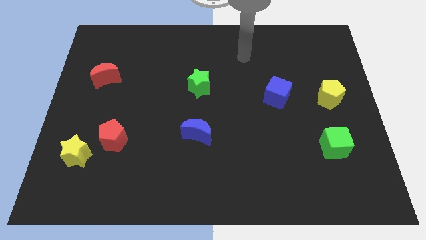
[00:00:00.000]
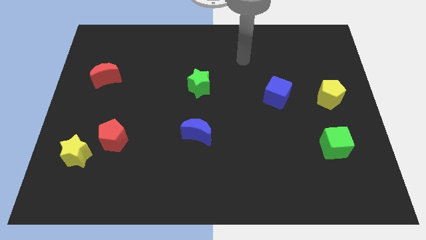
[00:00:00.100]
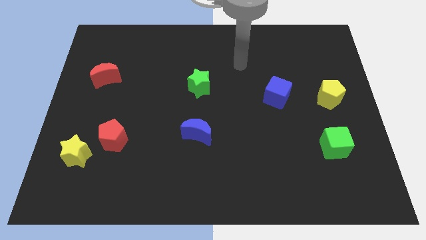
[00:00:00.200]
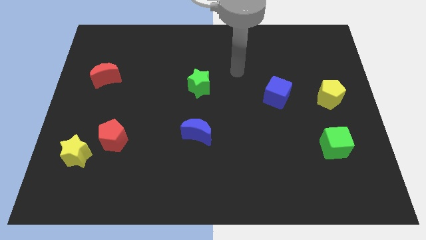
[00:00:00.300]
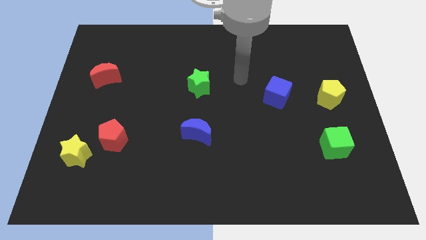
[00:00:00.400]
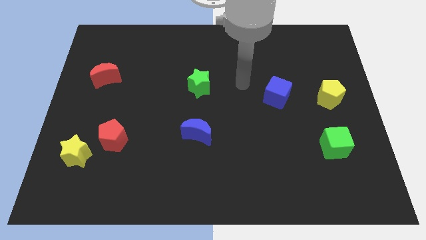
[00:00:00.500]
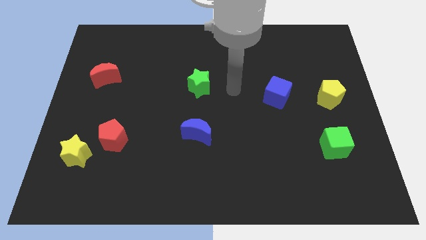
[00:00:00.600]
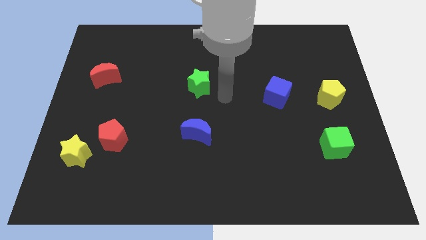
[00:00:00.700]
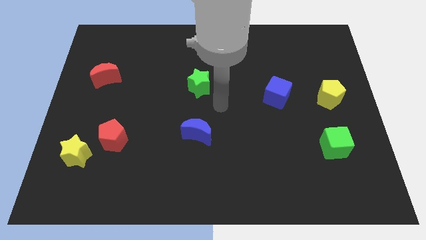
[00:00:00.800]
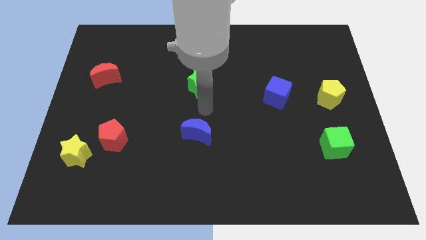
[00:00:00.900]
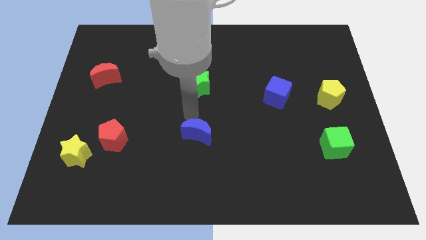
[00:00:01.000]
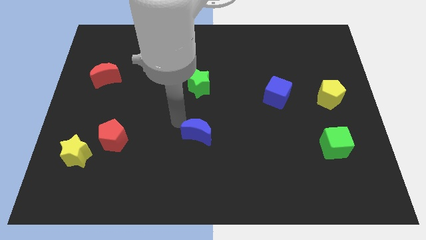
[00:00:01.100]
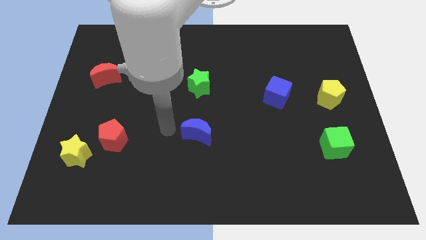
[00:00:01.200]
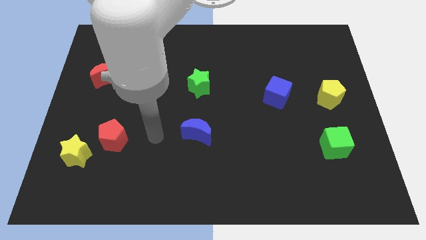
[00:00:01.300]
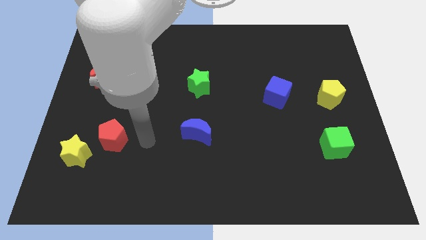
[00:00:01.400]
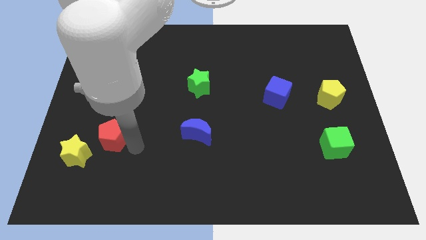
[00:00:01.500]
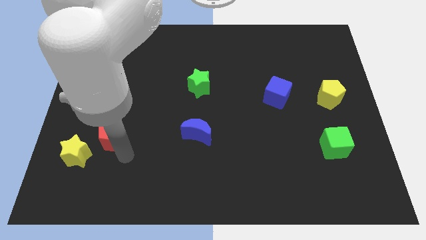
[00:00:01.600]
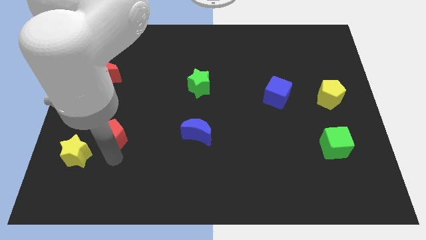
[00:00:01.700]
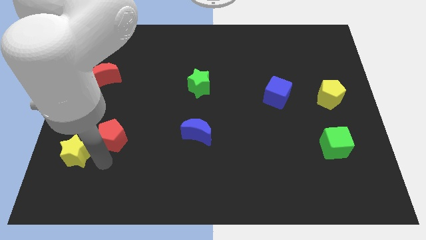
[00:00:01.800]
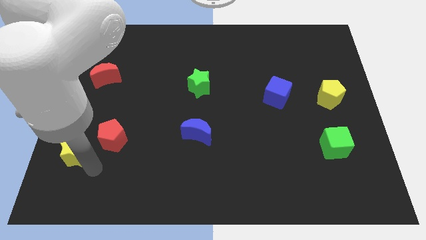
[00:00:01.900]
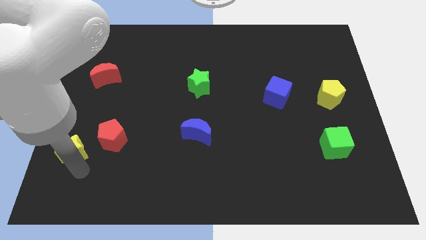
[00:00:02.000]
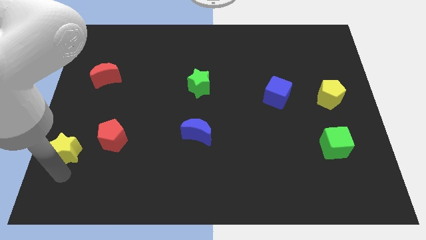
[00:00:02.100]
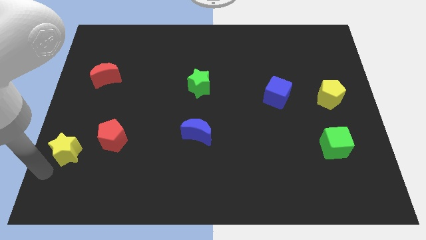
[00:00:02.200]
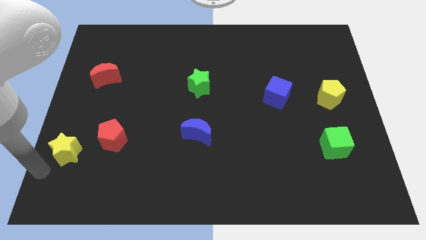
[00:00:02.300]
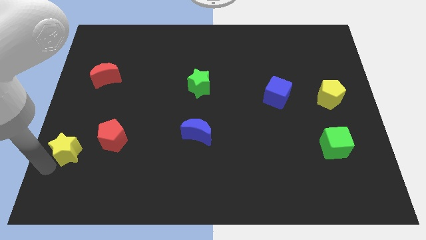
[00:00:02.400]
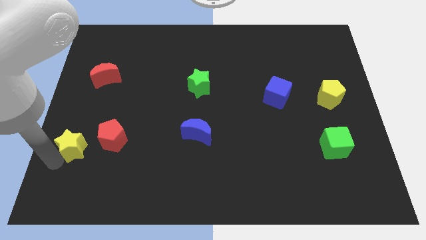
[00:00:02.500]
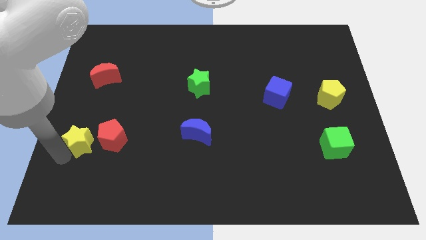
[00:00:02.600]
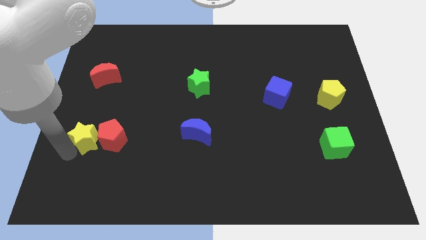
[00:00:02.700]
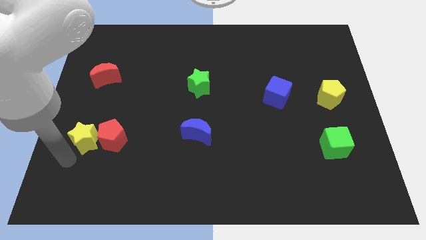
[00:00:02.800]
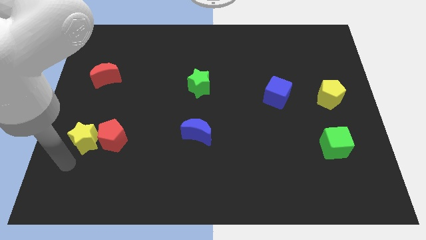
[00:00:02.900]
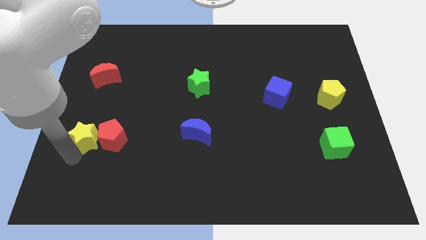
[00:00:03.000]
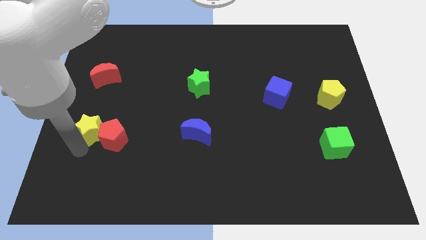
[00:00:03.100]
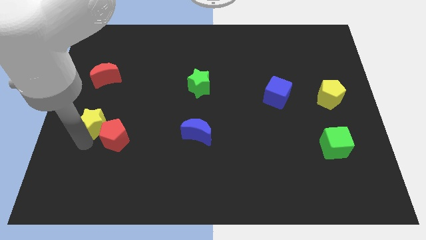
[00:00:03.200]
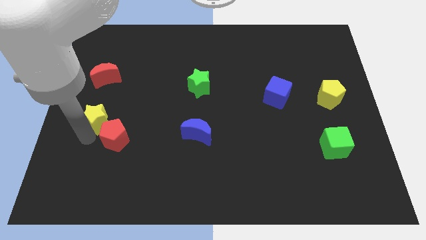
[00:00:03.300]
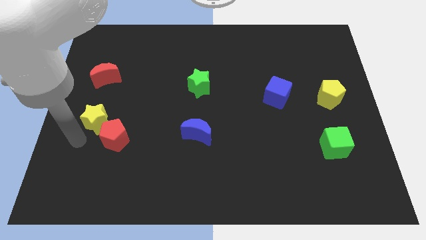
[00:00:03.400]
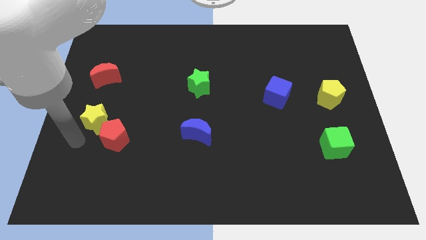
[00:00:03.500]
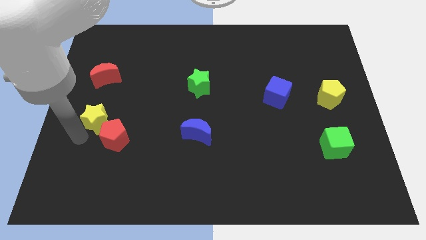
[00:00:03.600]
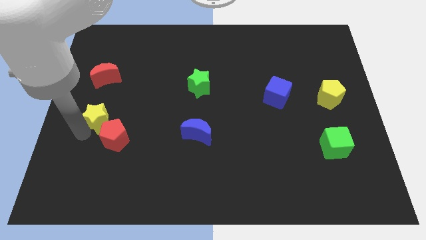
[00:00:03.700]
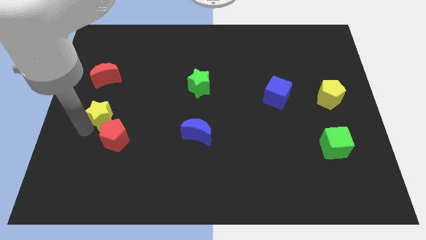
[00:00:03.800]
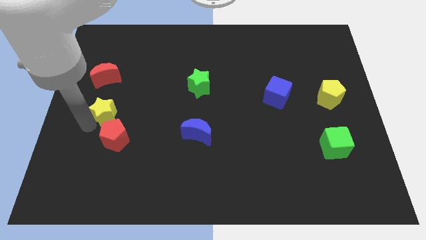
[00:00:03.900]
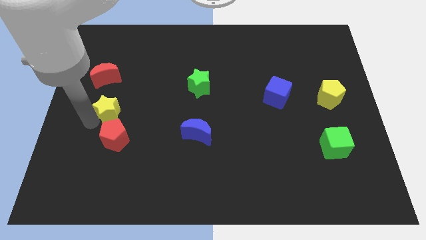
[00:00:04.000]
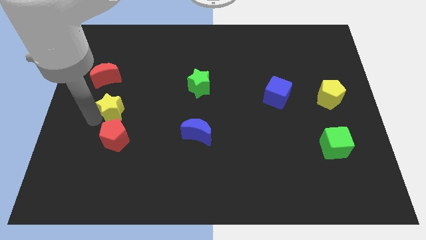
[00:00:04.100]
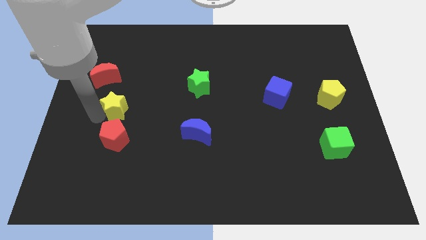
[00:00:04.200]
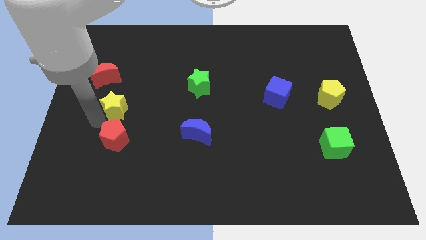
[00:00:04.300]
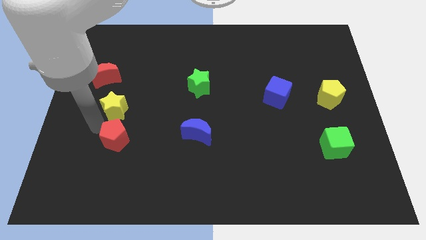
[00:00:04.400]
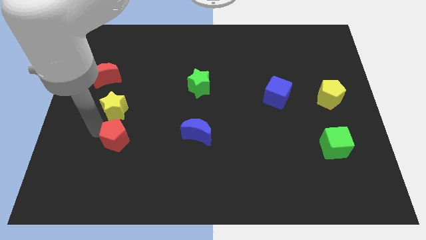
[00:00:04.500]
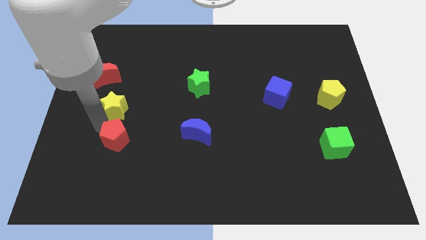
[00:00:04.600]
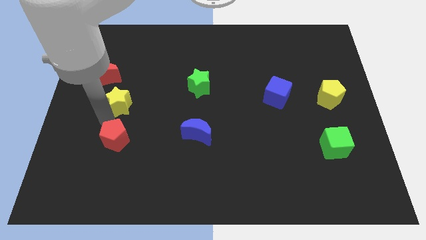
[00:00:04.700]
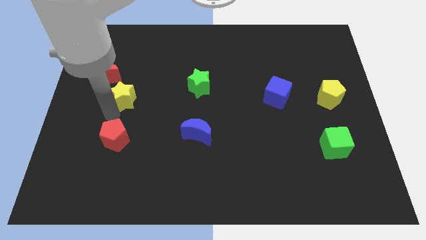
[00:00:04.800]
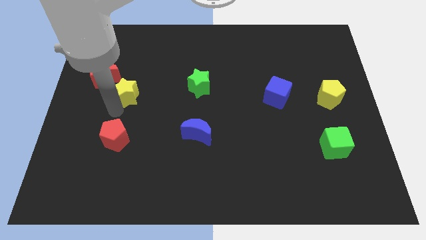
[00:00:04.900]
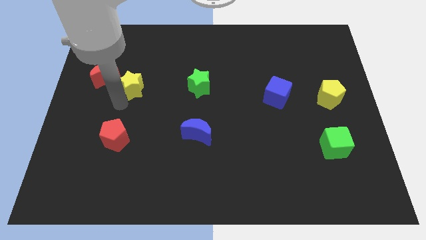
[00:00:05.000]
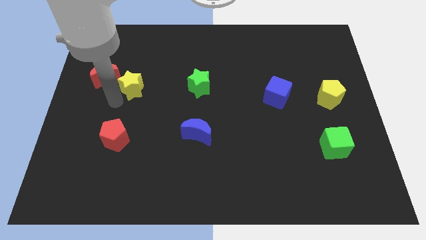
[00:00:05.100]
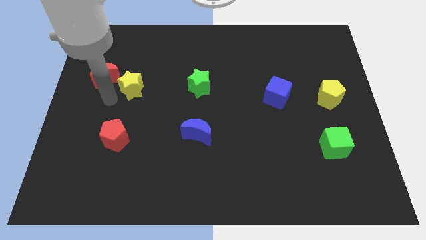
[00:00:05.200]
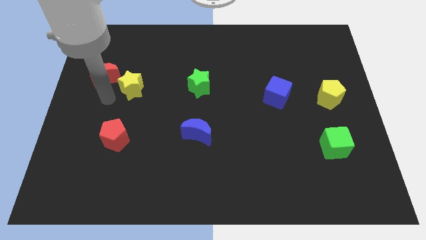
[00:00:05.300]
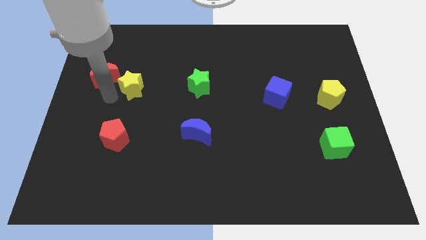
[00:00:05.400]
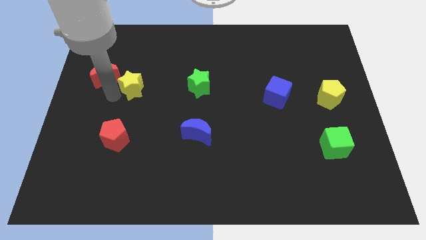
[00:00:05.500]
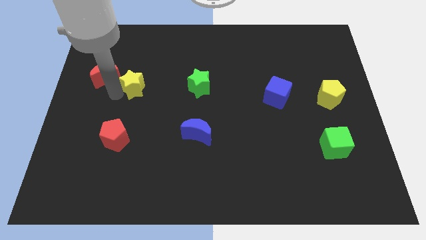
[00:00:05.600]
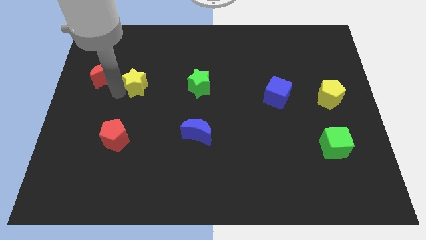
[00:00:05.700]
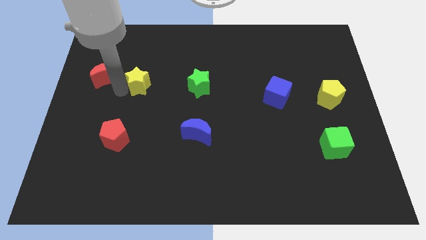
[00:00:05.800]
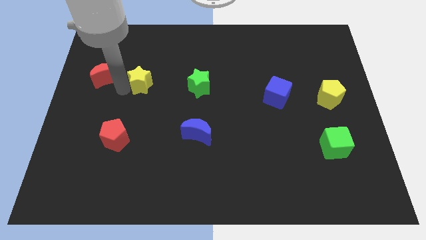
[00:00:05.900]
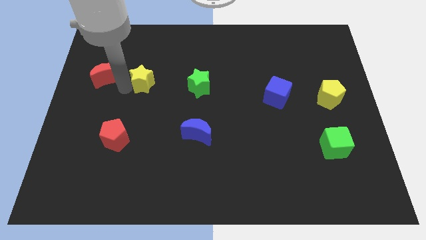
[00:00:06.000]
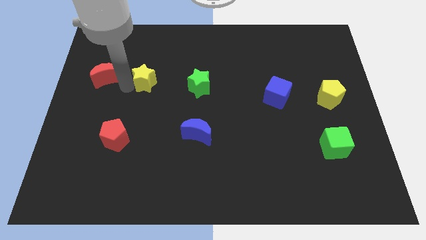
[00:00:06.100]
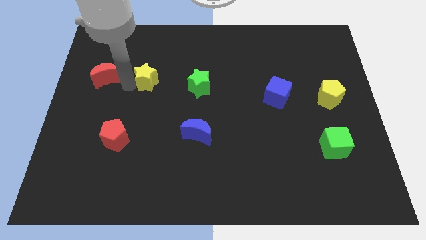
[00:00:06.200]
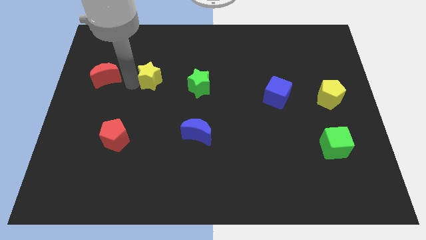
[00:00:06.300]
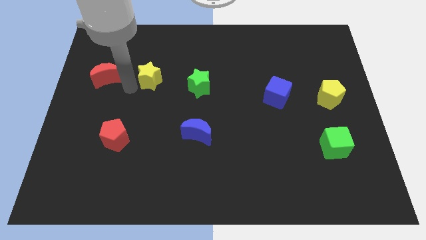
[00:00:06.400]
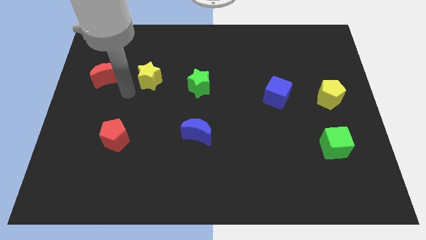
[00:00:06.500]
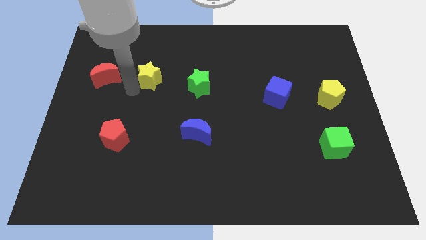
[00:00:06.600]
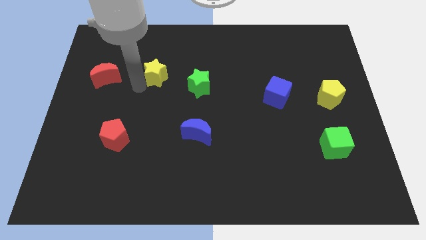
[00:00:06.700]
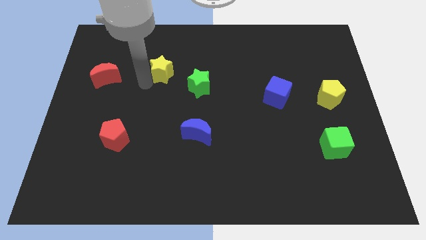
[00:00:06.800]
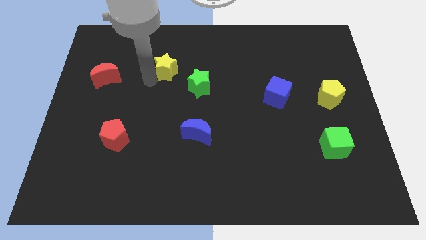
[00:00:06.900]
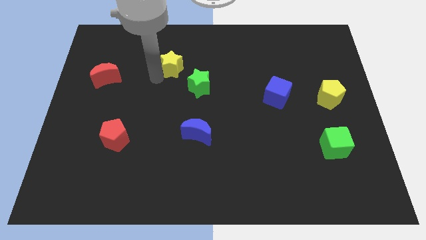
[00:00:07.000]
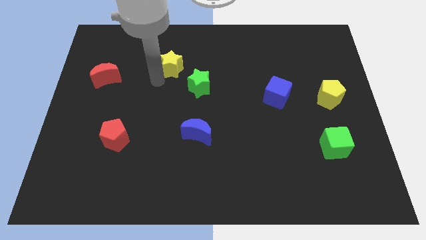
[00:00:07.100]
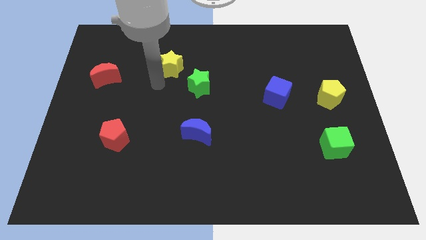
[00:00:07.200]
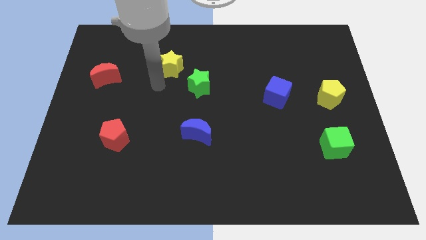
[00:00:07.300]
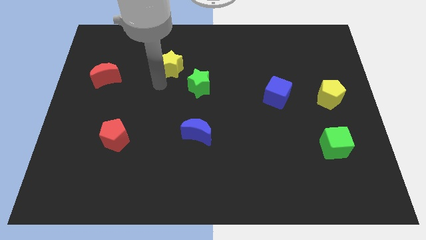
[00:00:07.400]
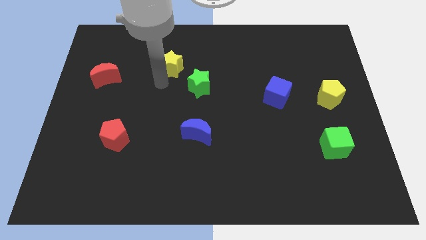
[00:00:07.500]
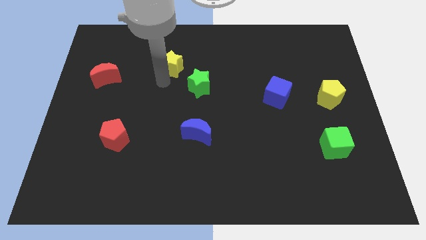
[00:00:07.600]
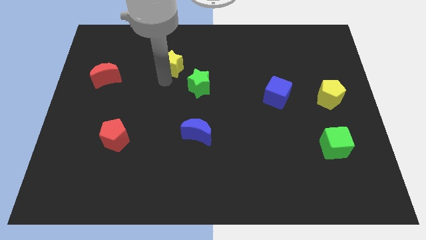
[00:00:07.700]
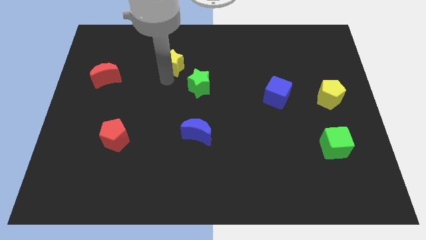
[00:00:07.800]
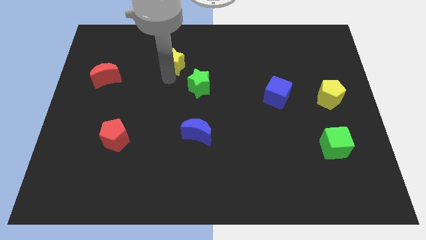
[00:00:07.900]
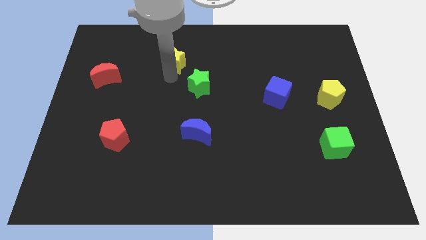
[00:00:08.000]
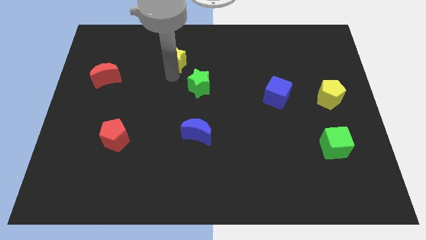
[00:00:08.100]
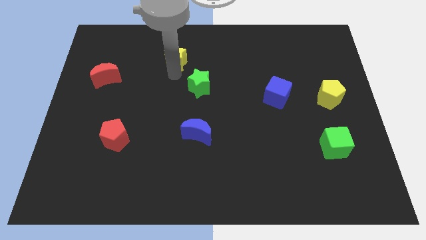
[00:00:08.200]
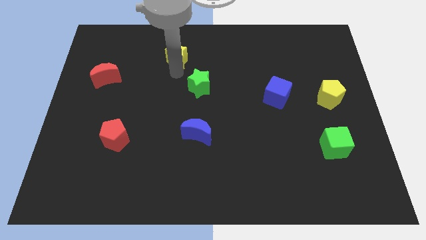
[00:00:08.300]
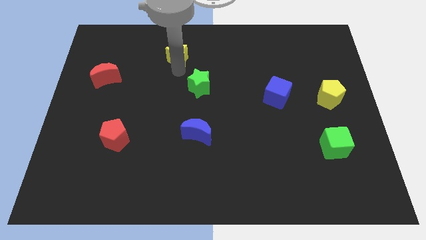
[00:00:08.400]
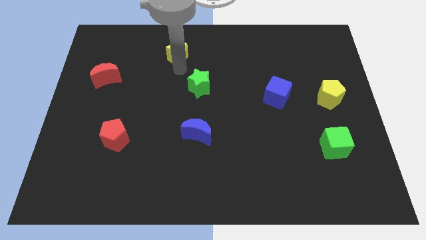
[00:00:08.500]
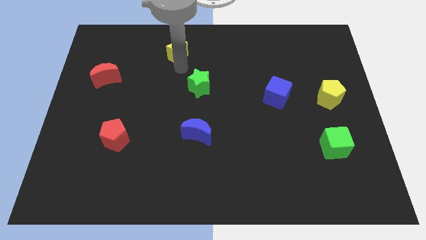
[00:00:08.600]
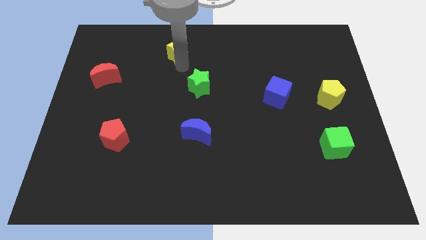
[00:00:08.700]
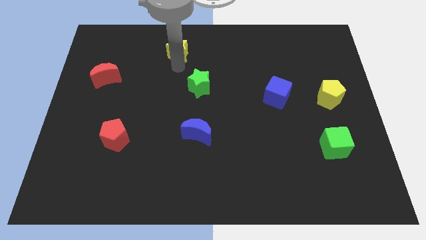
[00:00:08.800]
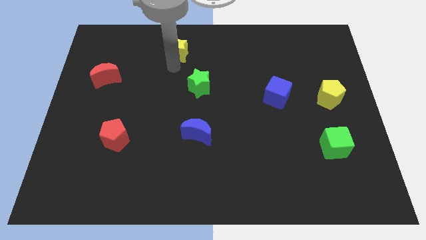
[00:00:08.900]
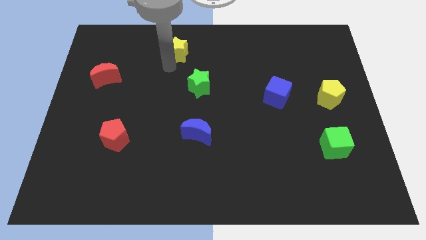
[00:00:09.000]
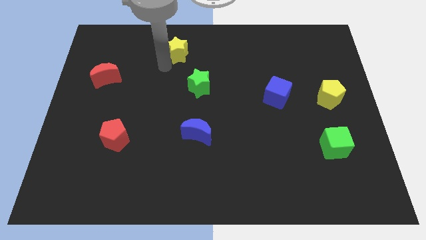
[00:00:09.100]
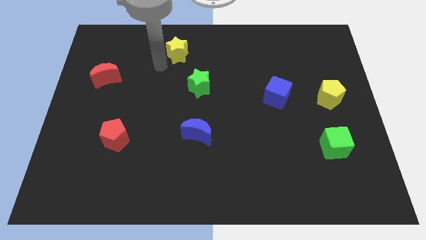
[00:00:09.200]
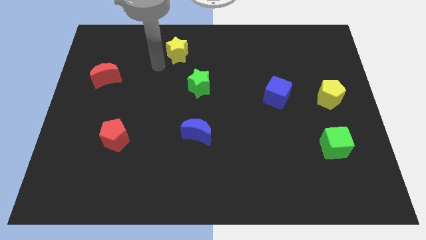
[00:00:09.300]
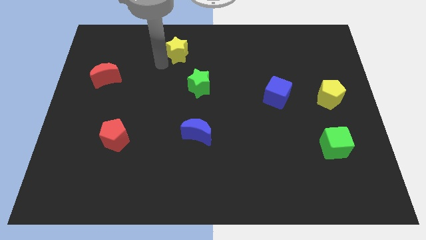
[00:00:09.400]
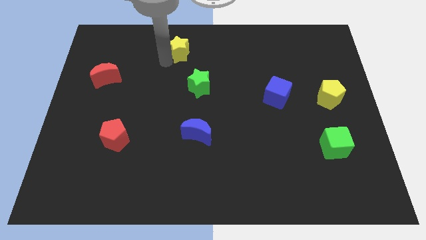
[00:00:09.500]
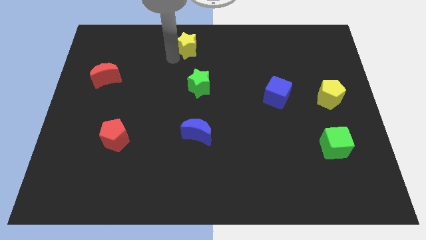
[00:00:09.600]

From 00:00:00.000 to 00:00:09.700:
move the yellow star to the top
